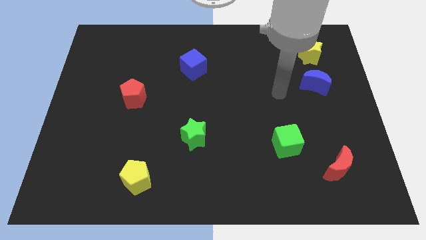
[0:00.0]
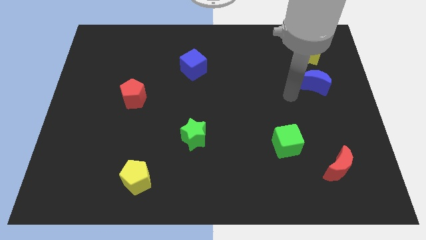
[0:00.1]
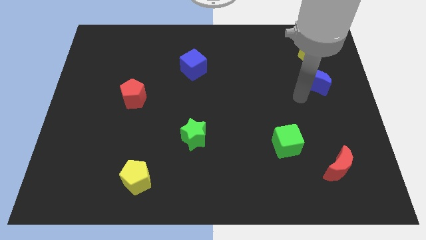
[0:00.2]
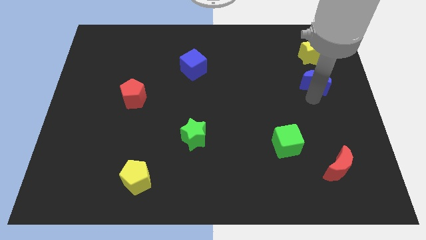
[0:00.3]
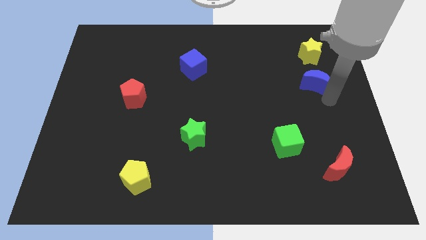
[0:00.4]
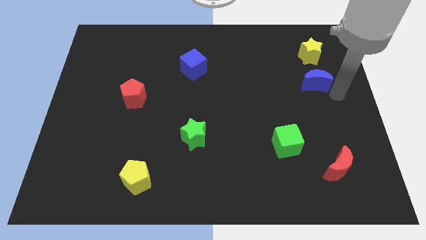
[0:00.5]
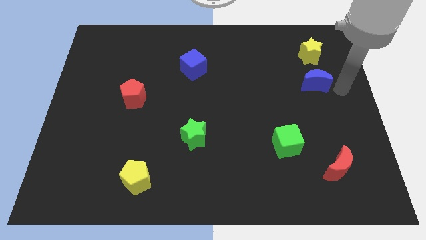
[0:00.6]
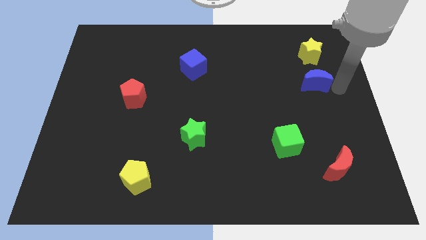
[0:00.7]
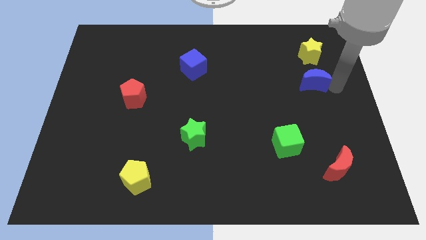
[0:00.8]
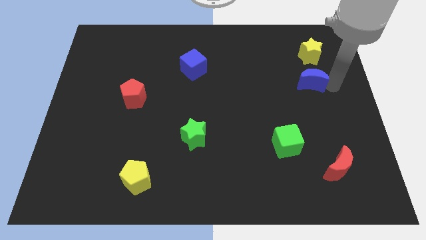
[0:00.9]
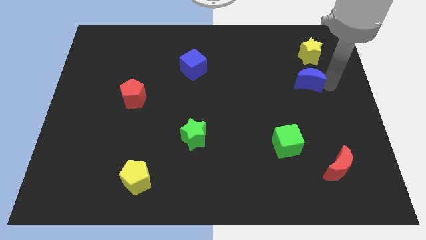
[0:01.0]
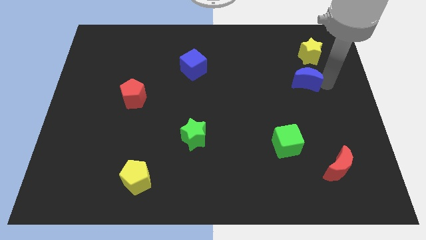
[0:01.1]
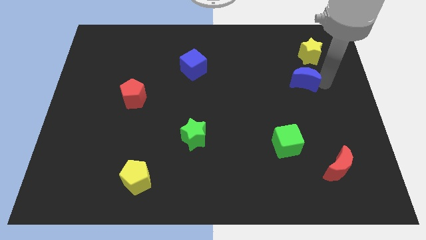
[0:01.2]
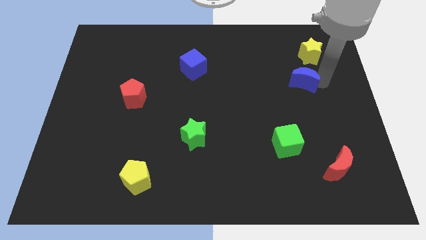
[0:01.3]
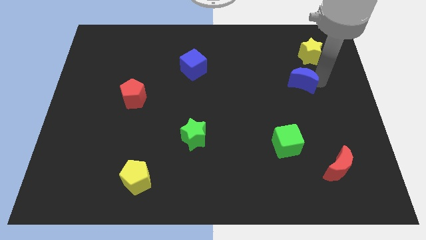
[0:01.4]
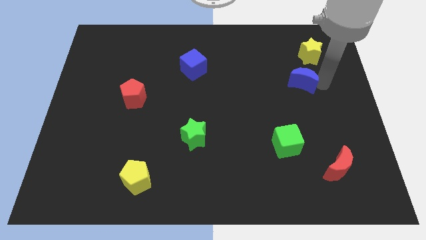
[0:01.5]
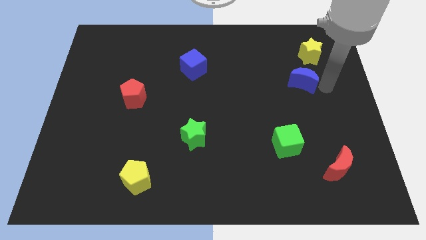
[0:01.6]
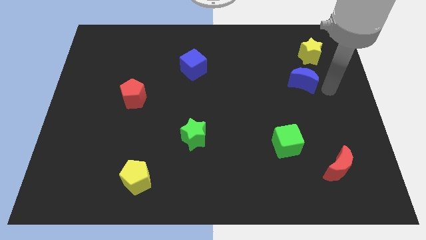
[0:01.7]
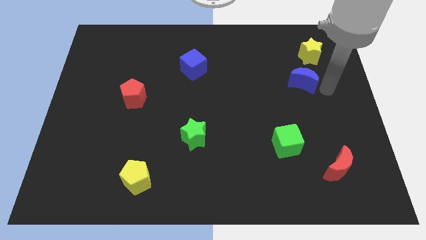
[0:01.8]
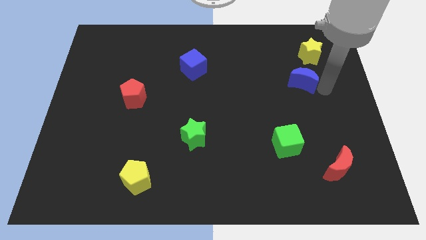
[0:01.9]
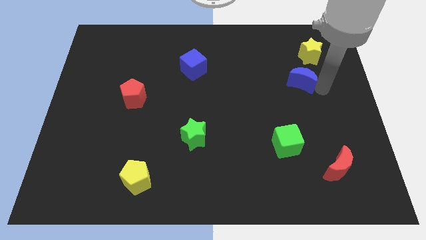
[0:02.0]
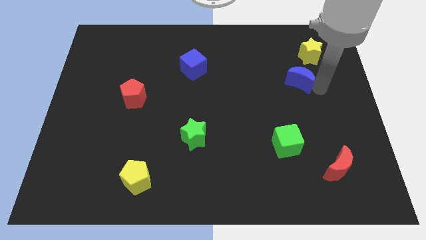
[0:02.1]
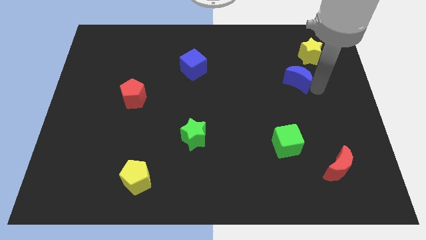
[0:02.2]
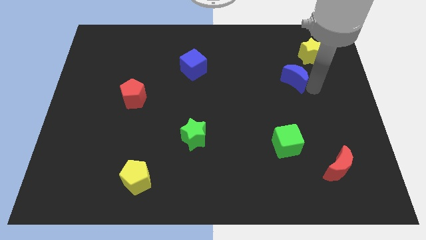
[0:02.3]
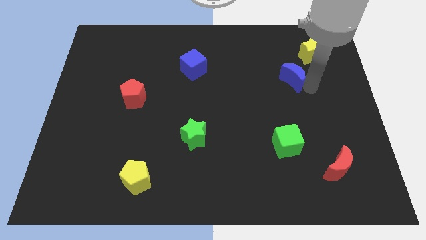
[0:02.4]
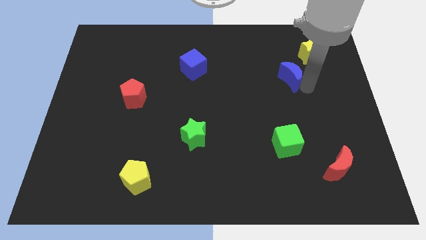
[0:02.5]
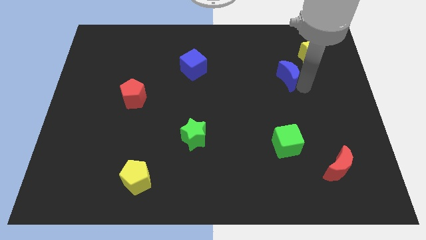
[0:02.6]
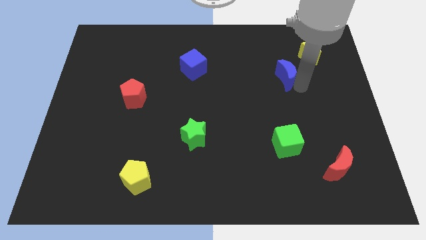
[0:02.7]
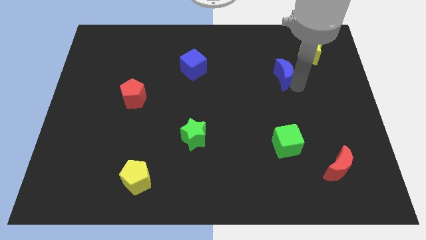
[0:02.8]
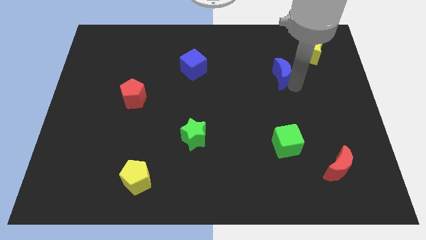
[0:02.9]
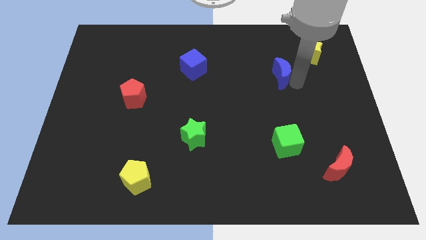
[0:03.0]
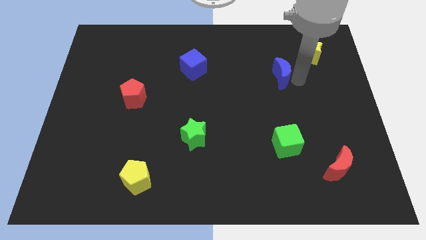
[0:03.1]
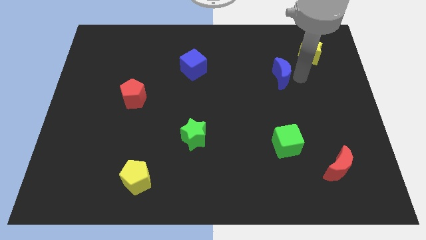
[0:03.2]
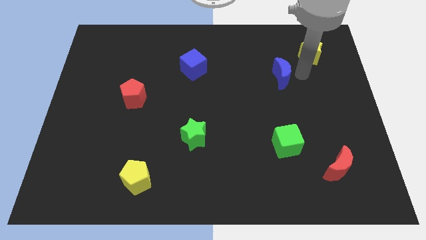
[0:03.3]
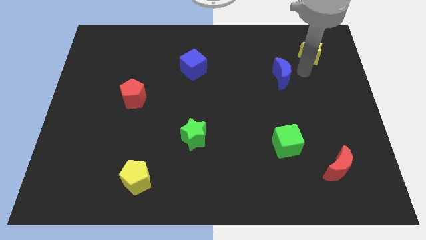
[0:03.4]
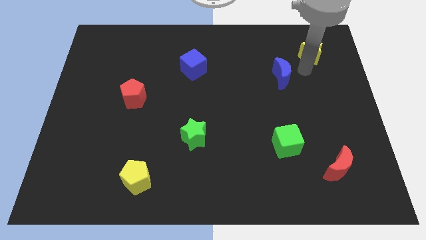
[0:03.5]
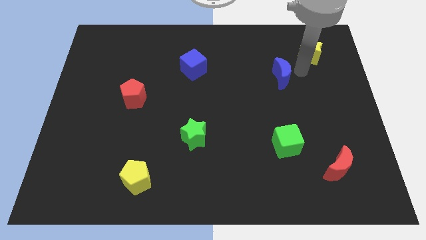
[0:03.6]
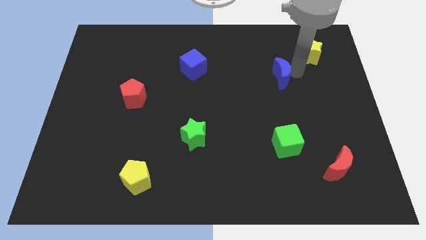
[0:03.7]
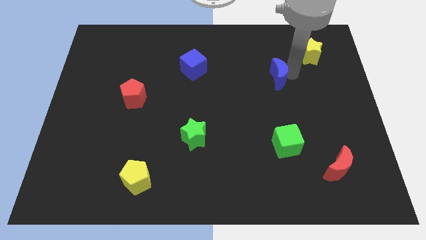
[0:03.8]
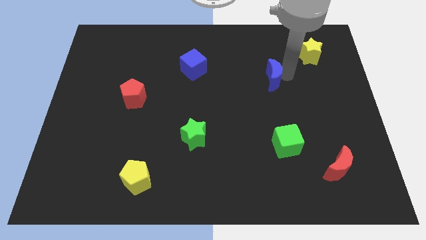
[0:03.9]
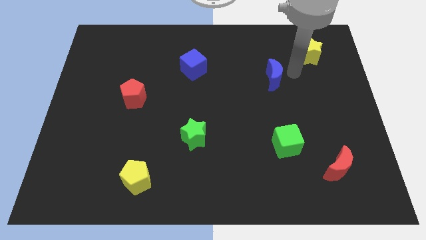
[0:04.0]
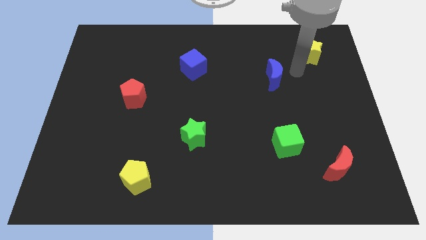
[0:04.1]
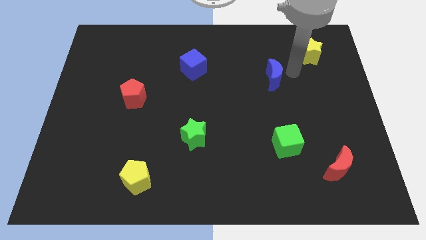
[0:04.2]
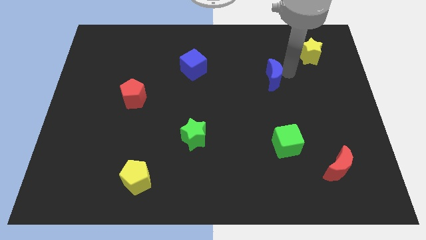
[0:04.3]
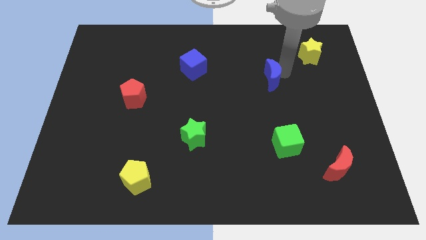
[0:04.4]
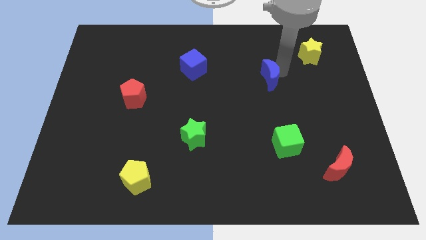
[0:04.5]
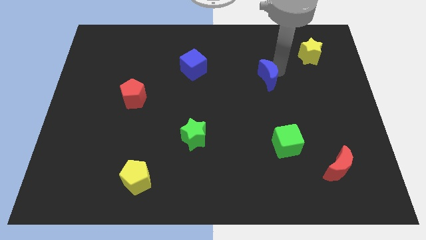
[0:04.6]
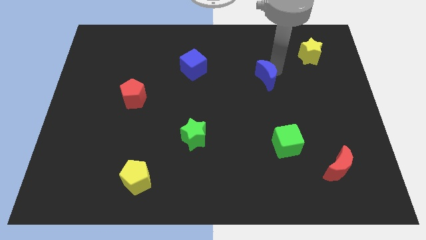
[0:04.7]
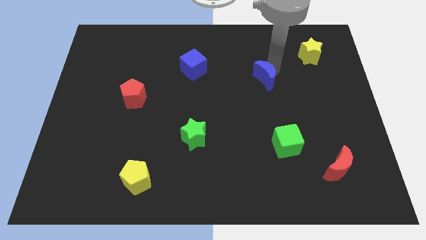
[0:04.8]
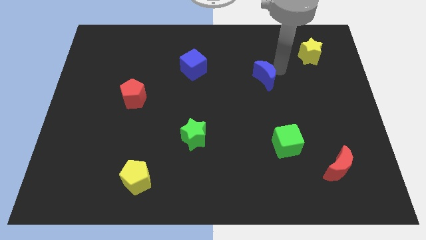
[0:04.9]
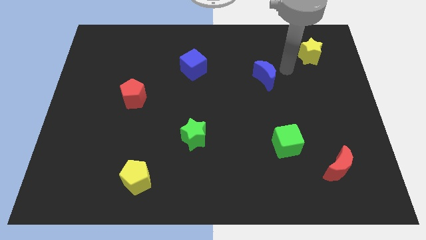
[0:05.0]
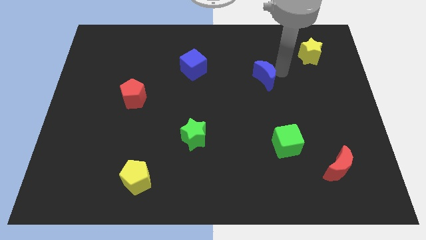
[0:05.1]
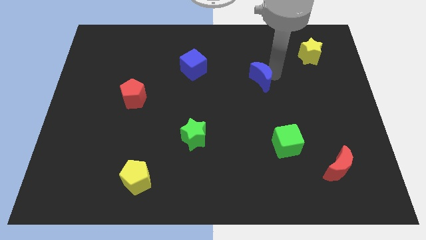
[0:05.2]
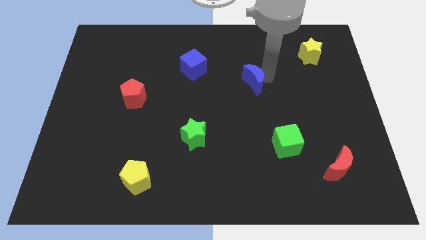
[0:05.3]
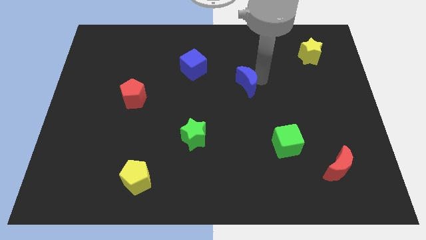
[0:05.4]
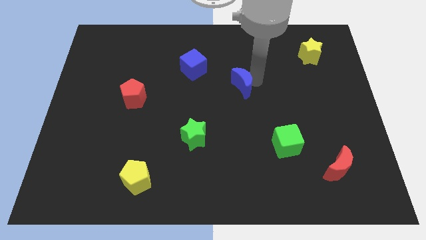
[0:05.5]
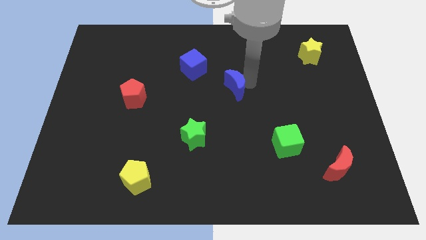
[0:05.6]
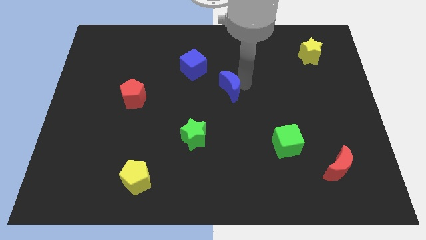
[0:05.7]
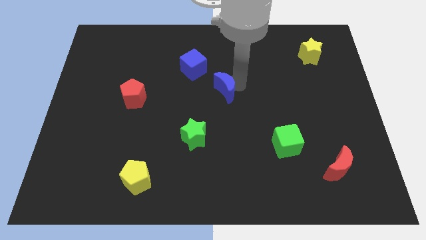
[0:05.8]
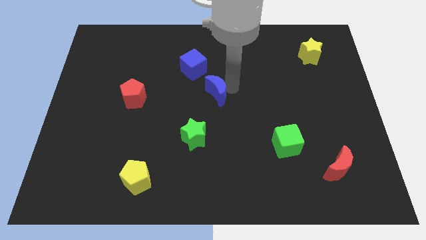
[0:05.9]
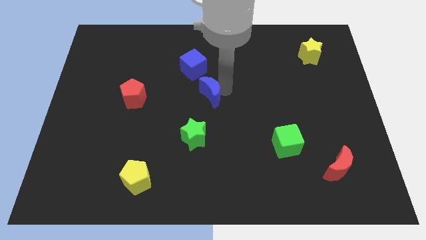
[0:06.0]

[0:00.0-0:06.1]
slide the blue moon to the top side of the green star
